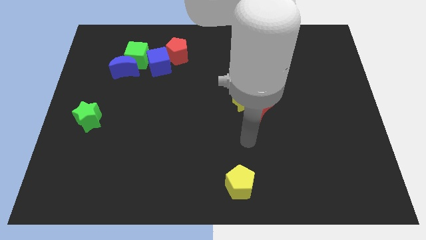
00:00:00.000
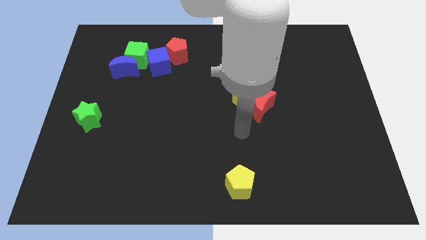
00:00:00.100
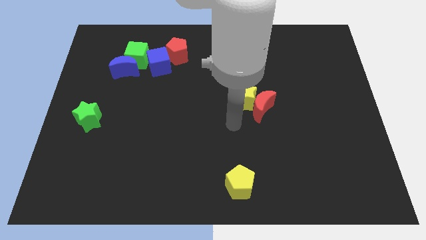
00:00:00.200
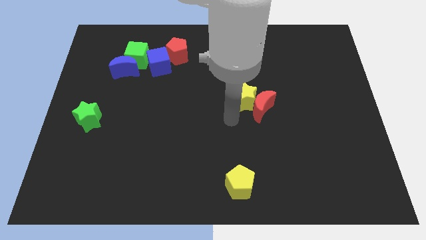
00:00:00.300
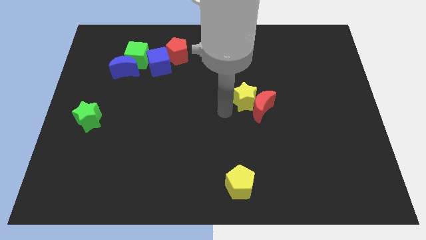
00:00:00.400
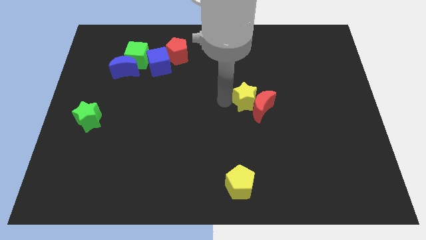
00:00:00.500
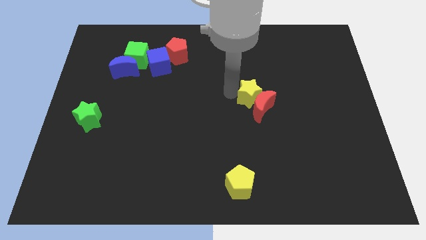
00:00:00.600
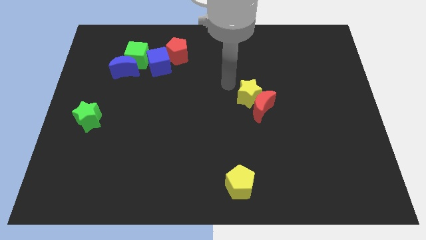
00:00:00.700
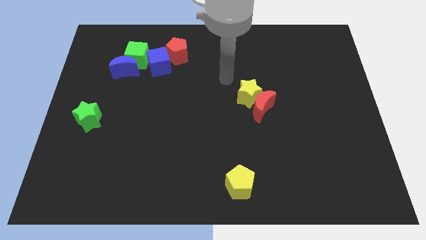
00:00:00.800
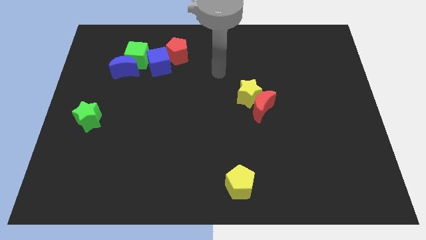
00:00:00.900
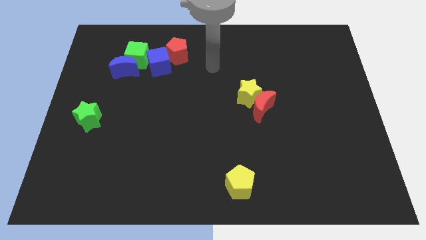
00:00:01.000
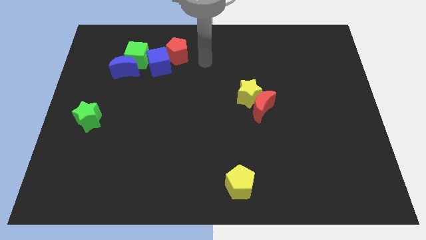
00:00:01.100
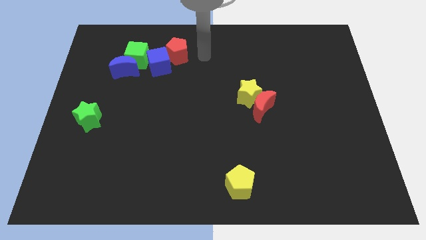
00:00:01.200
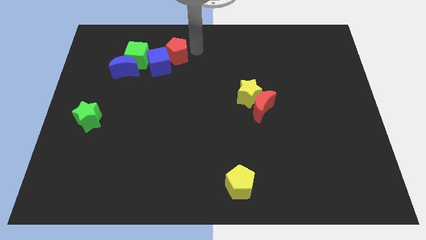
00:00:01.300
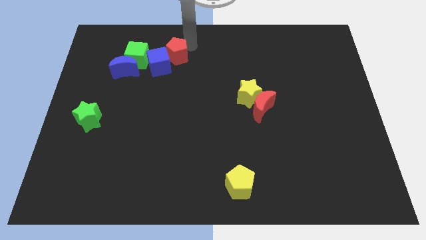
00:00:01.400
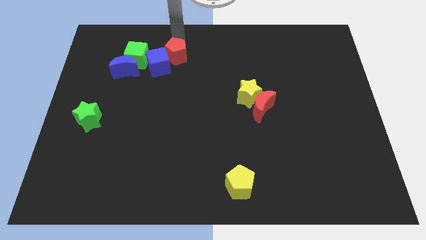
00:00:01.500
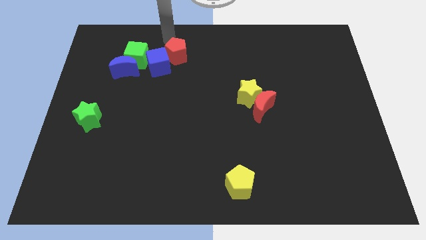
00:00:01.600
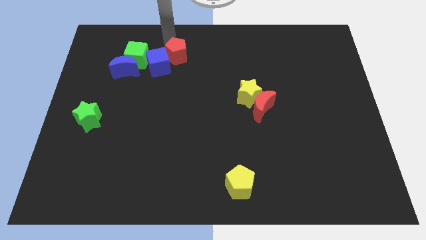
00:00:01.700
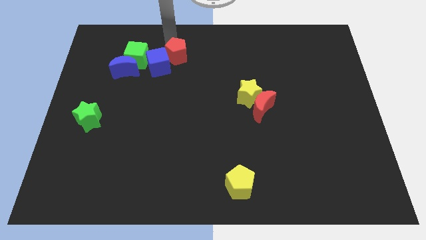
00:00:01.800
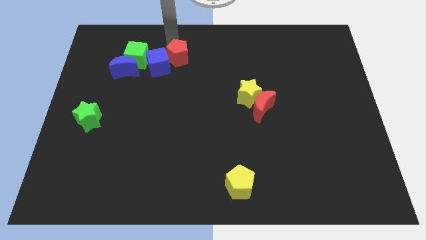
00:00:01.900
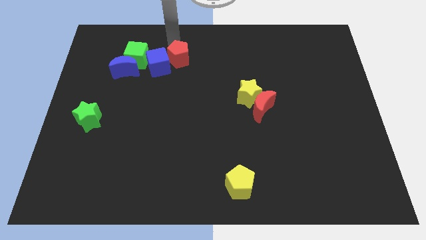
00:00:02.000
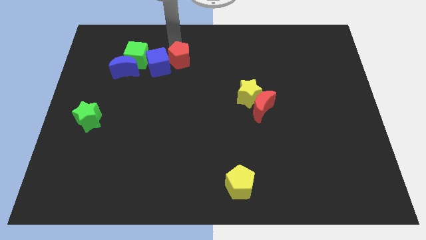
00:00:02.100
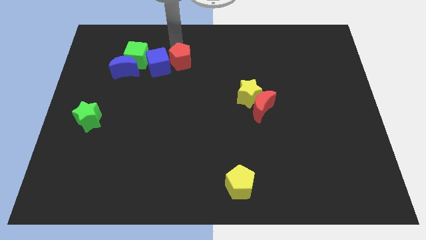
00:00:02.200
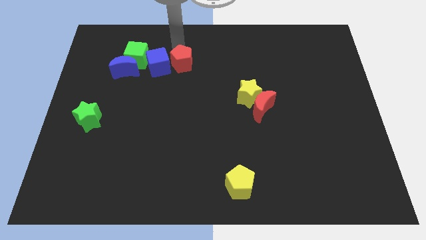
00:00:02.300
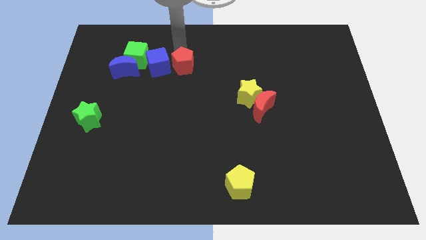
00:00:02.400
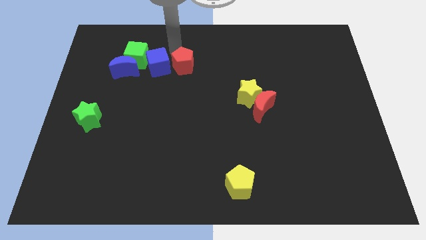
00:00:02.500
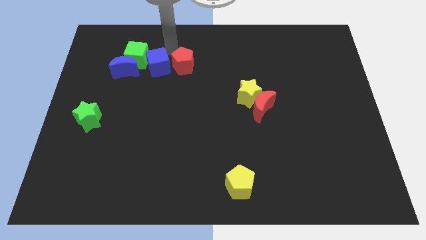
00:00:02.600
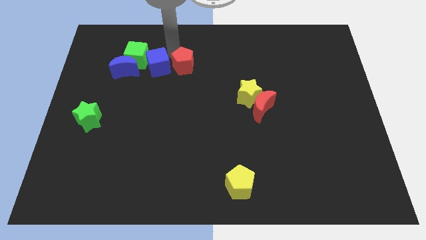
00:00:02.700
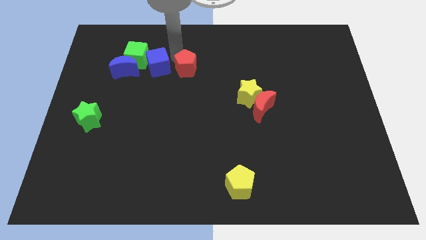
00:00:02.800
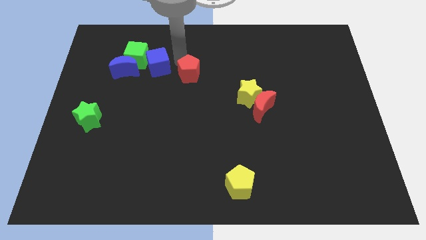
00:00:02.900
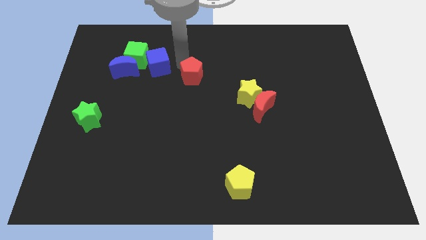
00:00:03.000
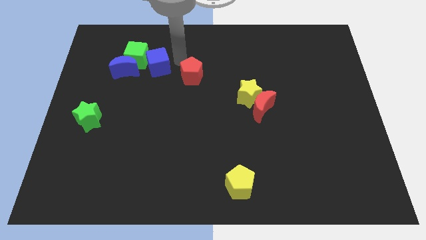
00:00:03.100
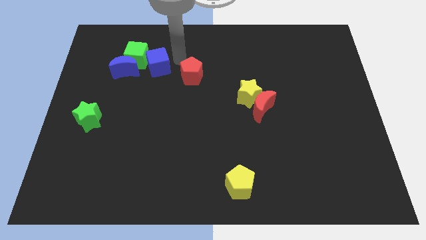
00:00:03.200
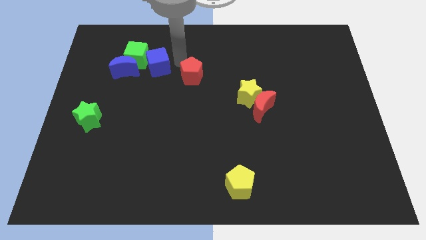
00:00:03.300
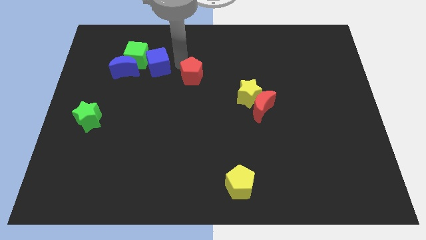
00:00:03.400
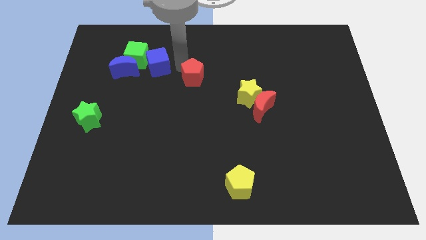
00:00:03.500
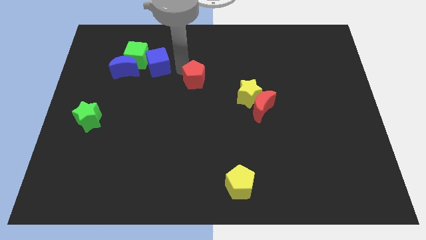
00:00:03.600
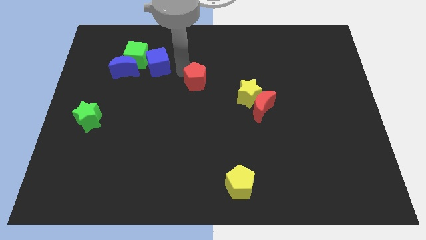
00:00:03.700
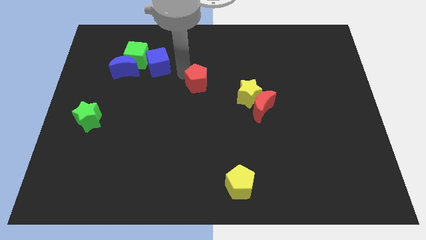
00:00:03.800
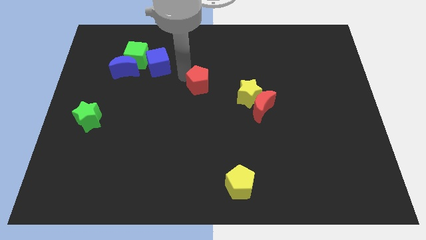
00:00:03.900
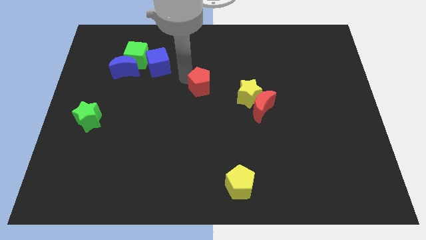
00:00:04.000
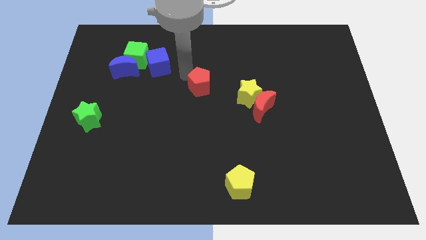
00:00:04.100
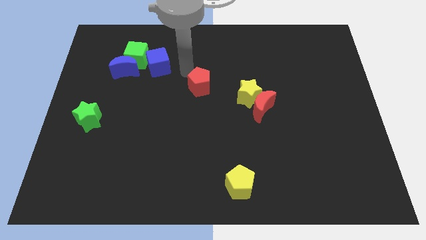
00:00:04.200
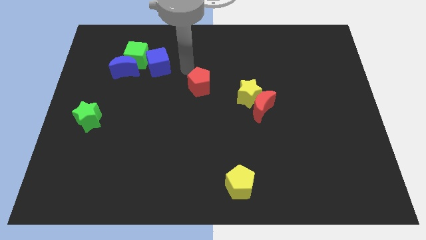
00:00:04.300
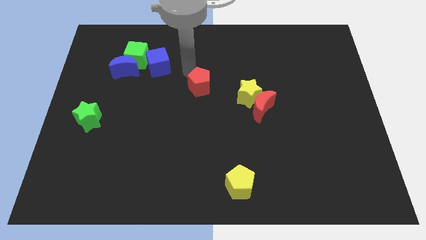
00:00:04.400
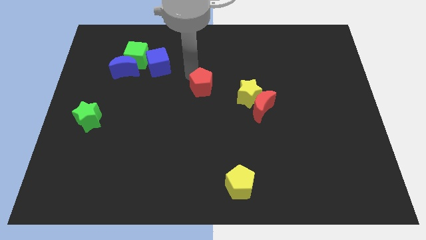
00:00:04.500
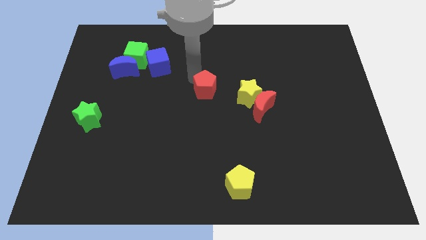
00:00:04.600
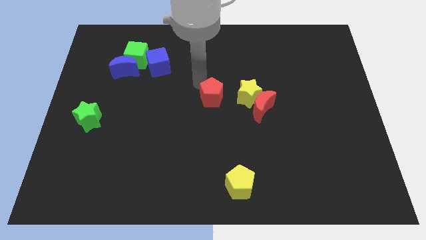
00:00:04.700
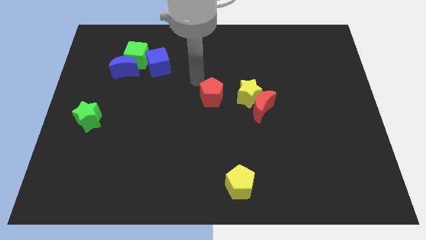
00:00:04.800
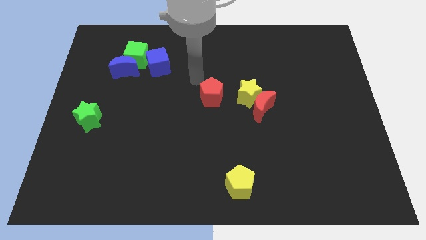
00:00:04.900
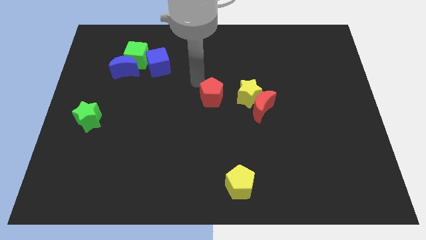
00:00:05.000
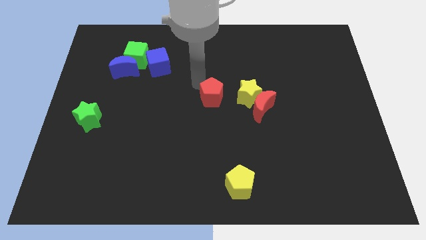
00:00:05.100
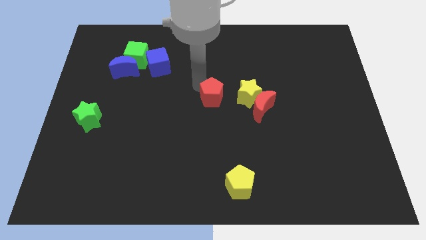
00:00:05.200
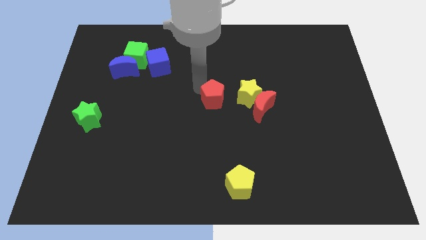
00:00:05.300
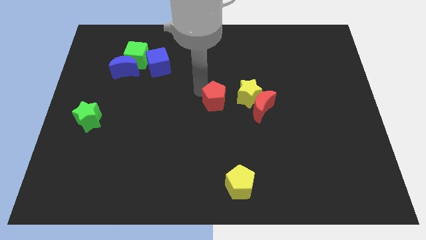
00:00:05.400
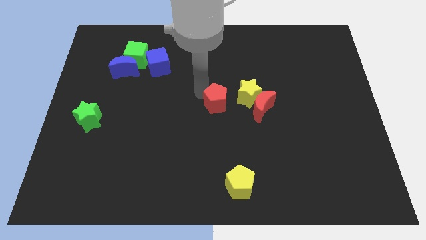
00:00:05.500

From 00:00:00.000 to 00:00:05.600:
put the red pentagon to the bottom left of the yellow star

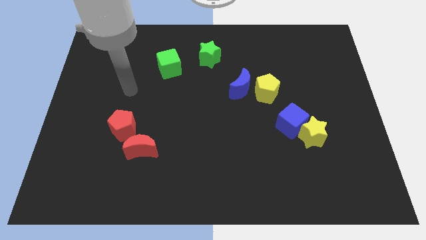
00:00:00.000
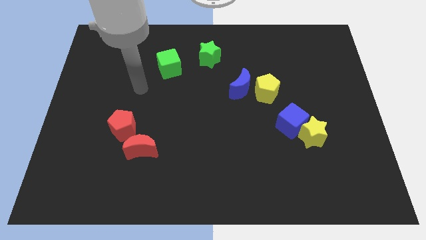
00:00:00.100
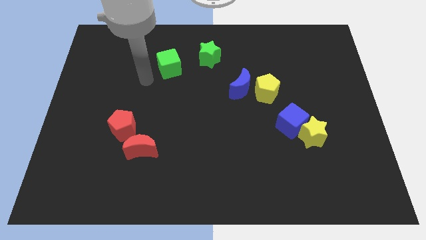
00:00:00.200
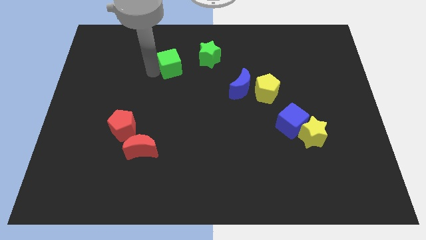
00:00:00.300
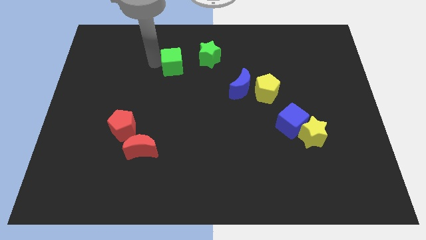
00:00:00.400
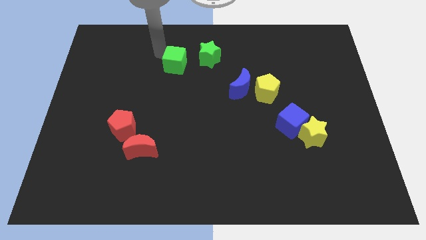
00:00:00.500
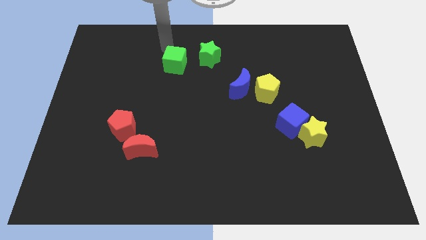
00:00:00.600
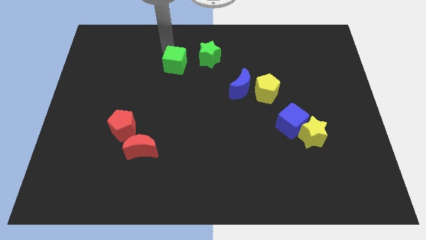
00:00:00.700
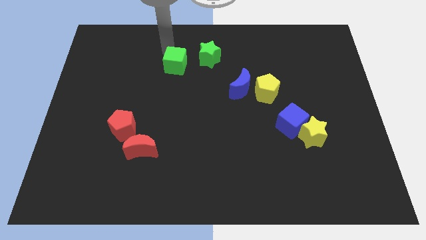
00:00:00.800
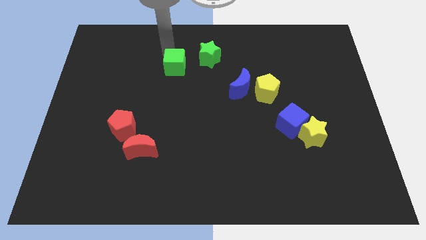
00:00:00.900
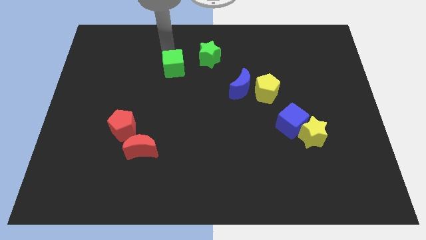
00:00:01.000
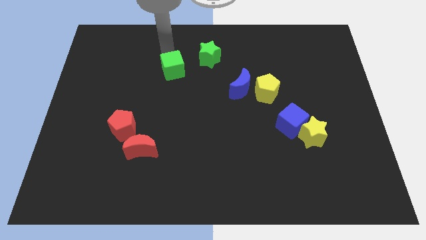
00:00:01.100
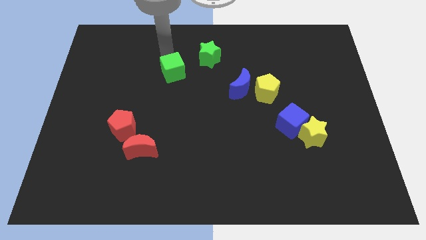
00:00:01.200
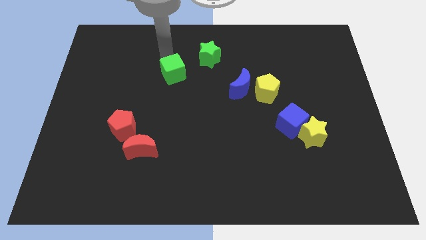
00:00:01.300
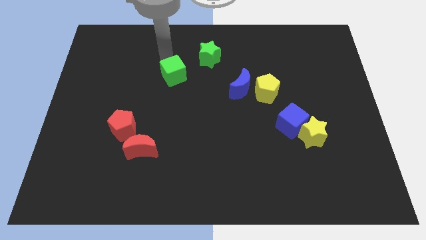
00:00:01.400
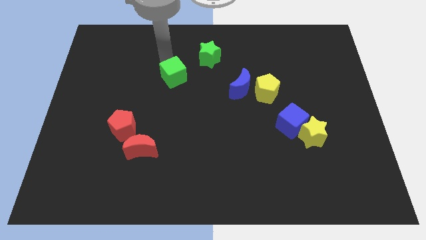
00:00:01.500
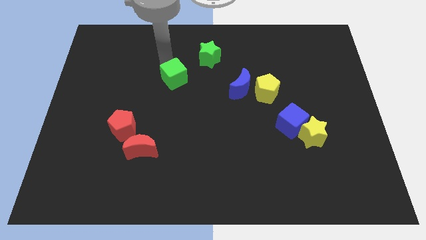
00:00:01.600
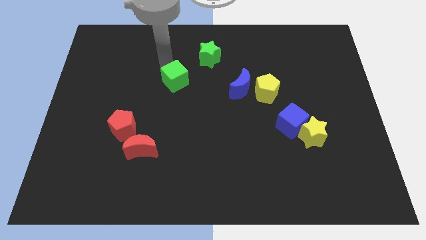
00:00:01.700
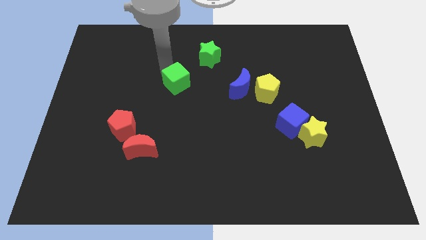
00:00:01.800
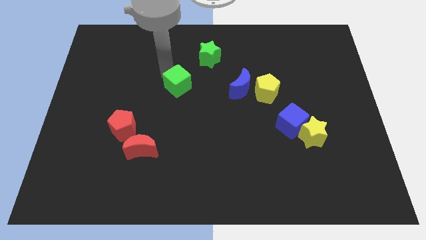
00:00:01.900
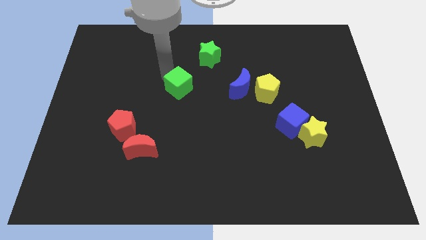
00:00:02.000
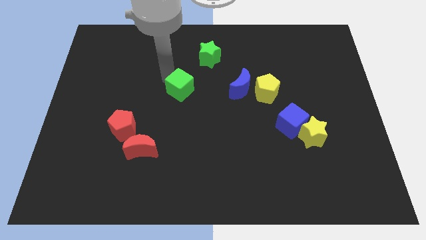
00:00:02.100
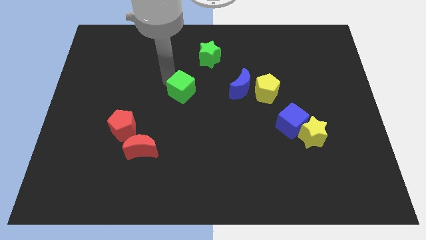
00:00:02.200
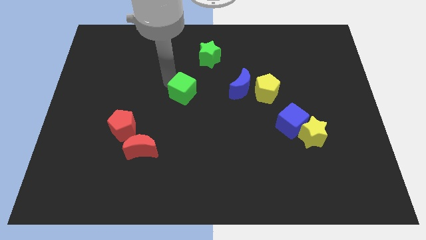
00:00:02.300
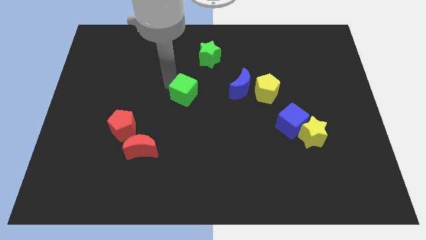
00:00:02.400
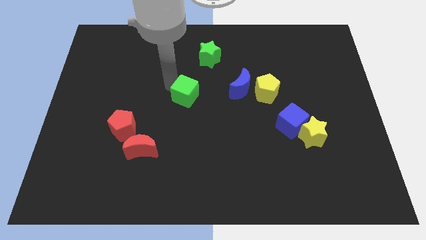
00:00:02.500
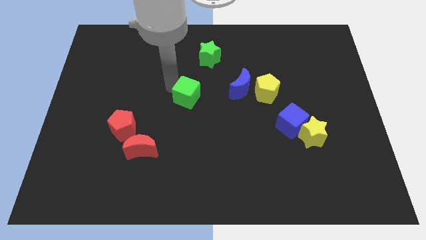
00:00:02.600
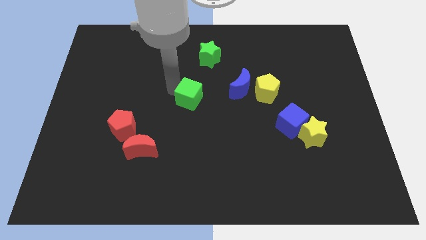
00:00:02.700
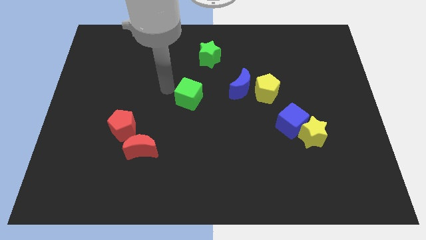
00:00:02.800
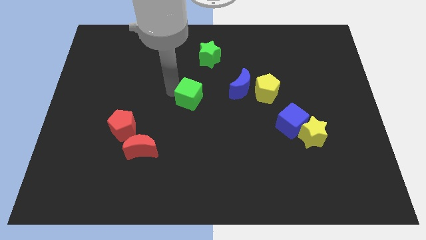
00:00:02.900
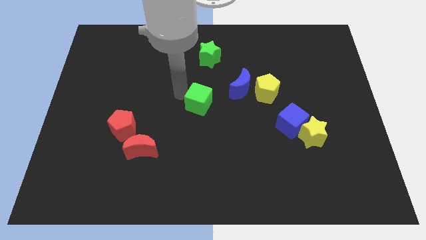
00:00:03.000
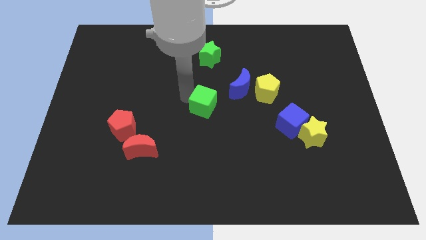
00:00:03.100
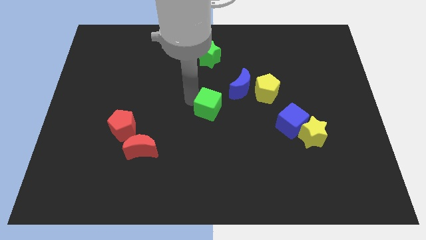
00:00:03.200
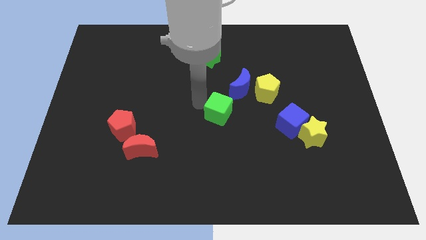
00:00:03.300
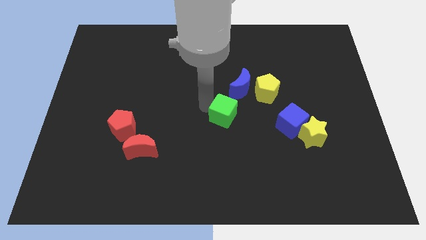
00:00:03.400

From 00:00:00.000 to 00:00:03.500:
slide the green cube to the left of the blue cube
